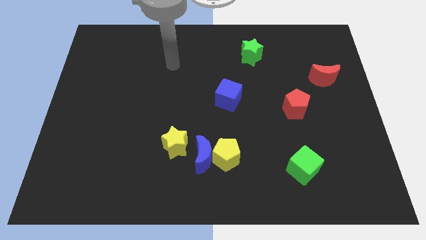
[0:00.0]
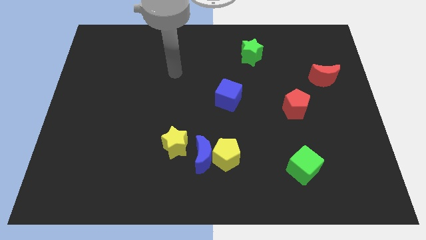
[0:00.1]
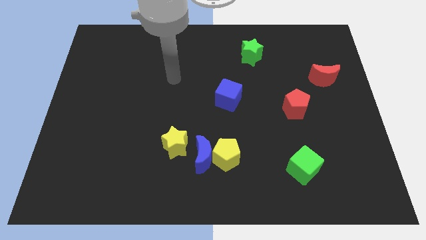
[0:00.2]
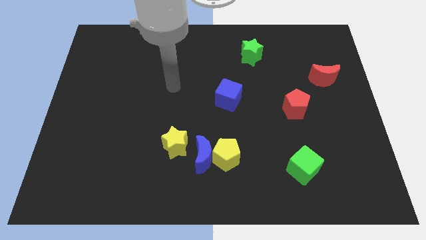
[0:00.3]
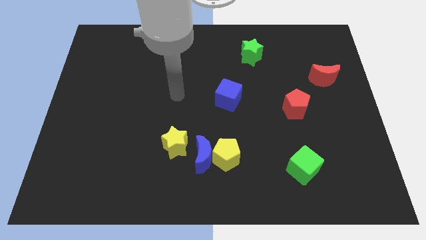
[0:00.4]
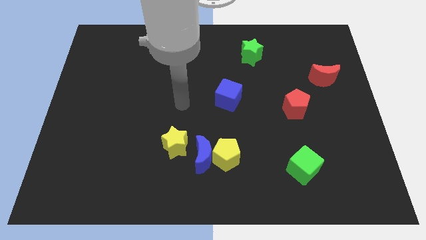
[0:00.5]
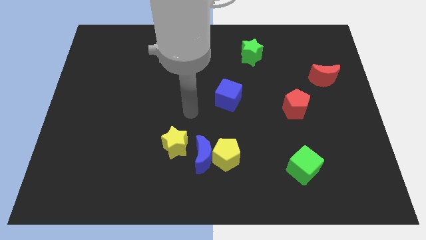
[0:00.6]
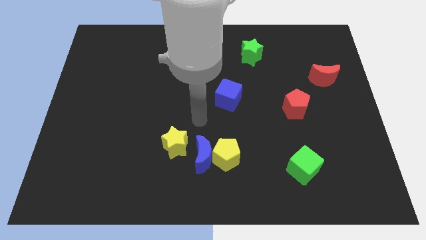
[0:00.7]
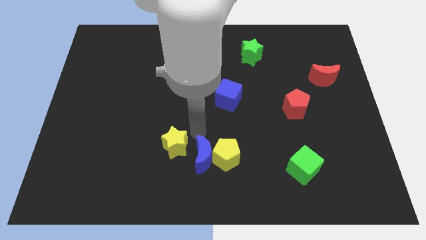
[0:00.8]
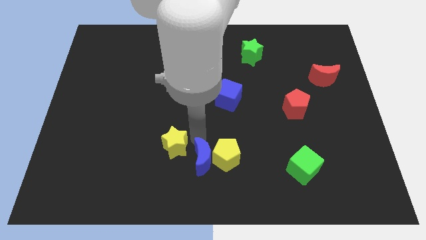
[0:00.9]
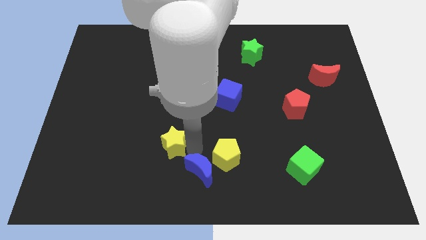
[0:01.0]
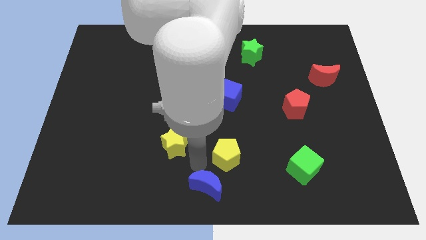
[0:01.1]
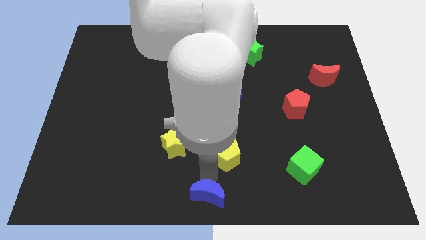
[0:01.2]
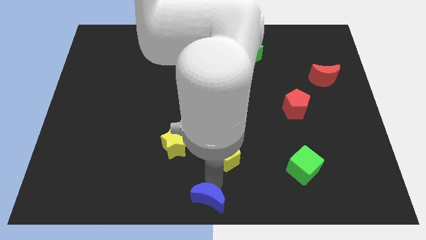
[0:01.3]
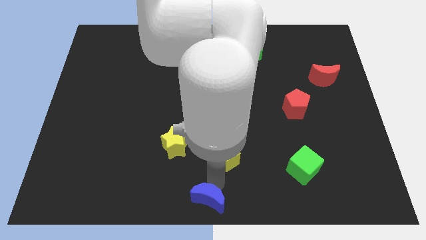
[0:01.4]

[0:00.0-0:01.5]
move the yellow pentagon away from the blue moon

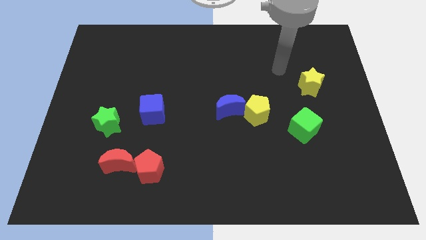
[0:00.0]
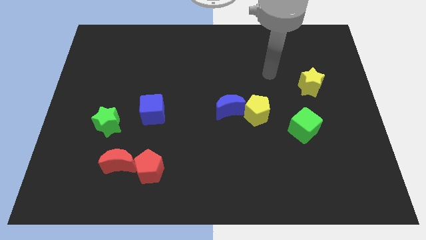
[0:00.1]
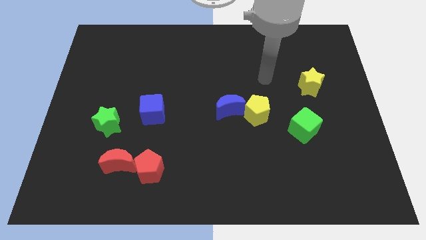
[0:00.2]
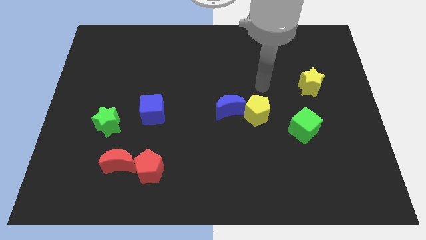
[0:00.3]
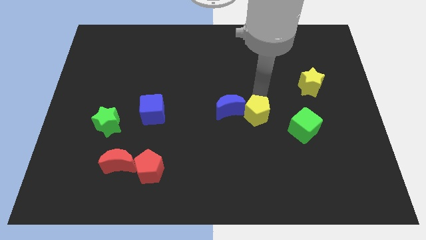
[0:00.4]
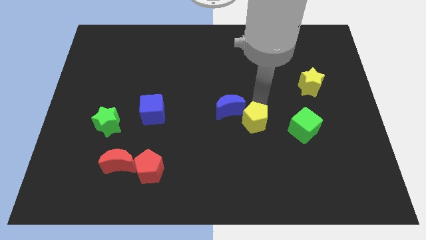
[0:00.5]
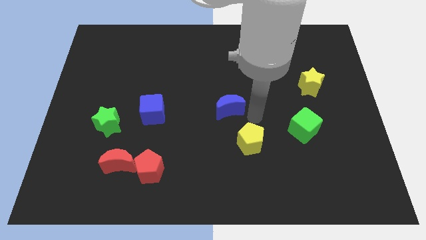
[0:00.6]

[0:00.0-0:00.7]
separate the blue moon from the yellow pentagon

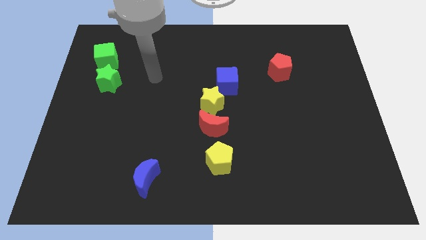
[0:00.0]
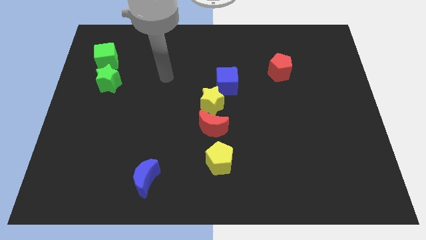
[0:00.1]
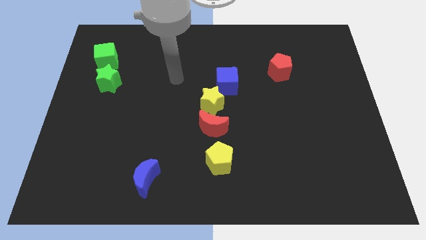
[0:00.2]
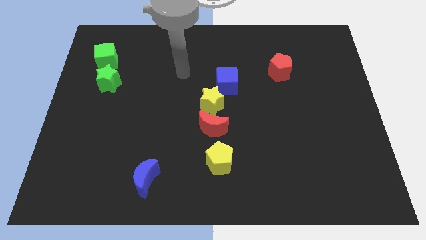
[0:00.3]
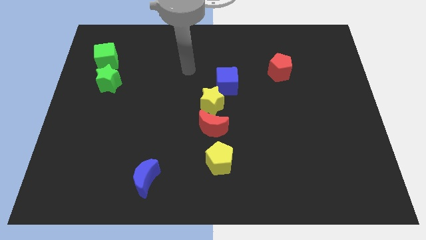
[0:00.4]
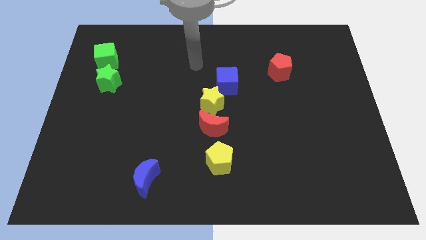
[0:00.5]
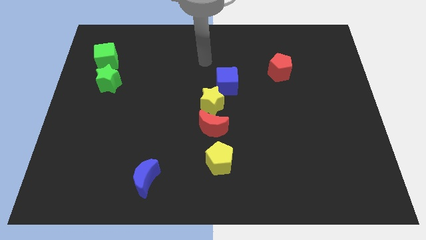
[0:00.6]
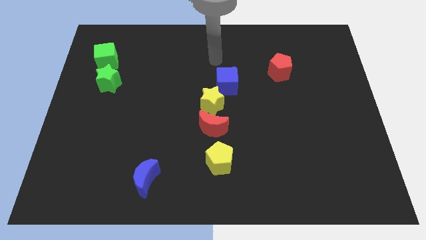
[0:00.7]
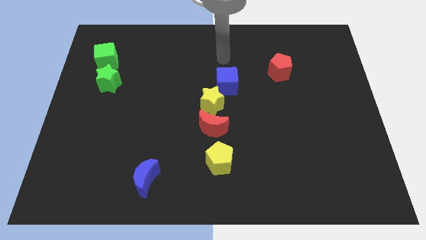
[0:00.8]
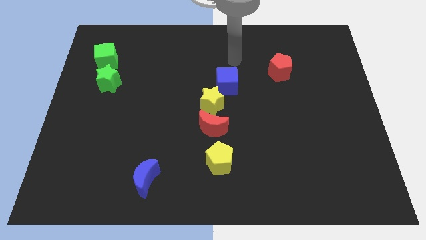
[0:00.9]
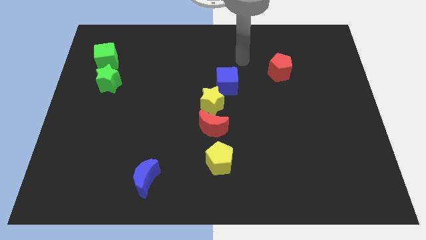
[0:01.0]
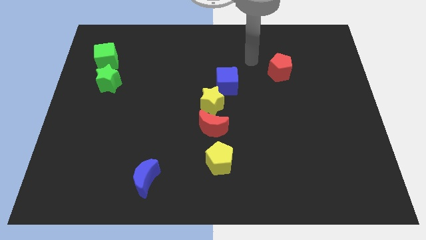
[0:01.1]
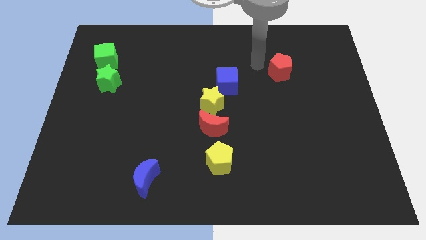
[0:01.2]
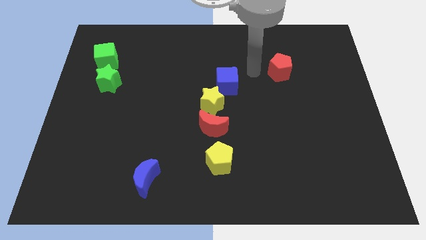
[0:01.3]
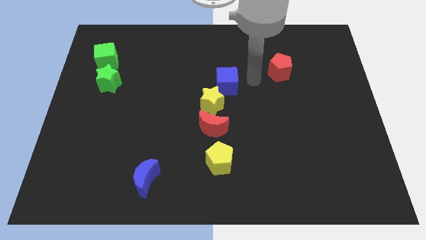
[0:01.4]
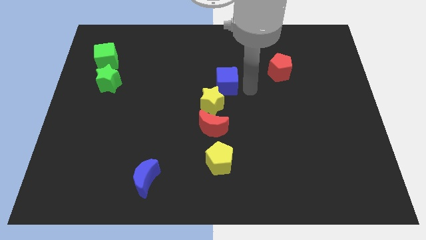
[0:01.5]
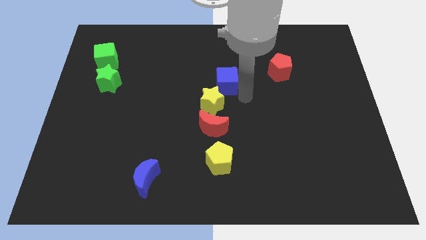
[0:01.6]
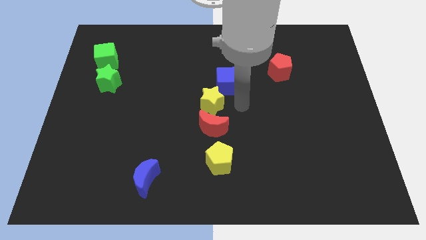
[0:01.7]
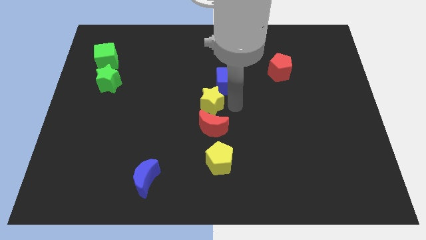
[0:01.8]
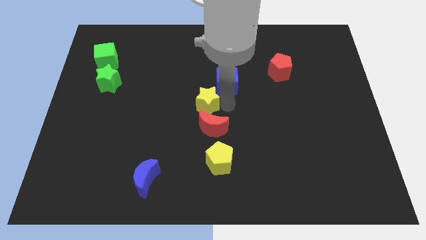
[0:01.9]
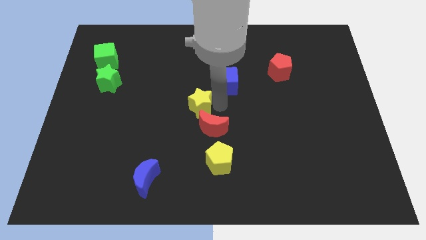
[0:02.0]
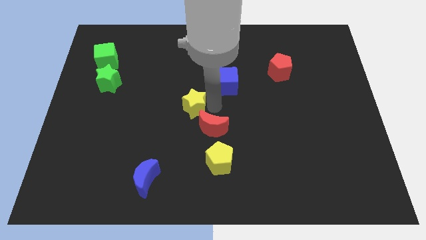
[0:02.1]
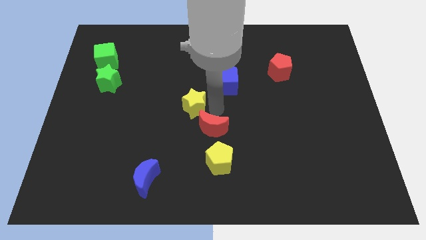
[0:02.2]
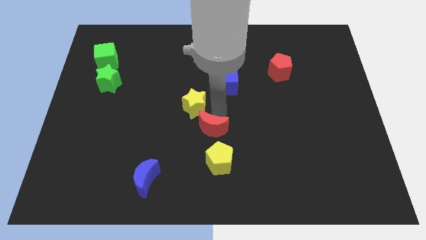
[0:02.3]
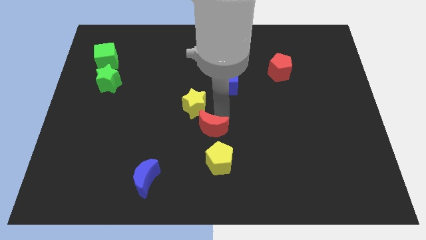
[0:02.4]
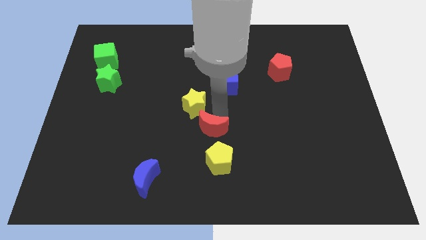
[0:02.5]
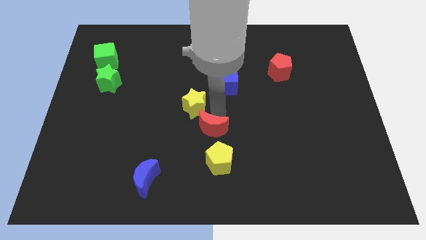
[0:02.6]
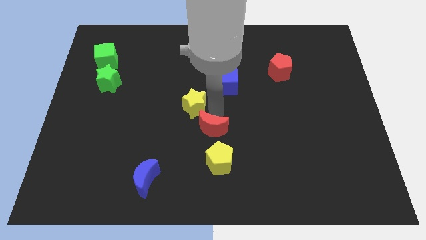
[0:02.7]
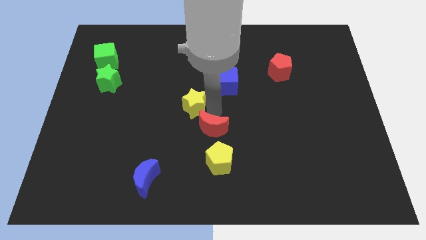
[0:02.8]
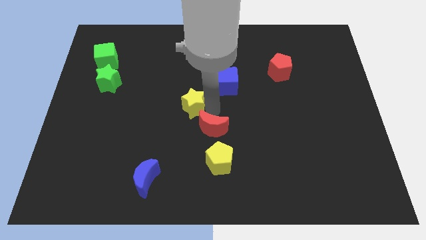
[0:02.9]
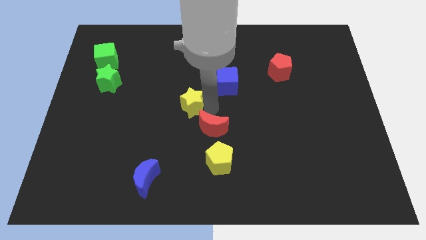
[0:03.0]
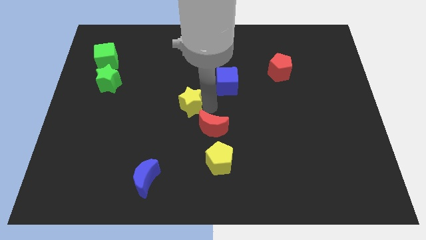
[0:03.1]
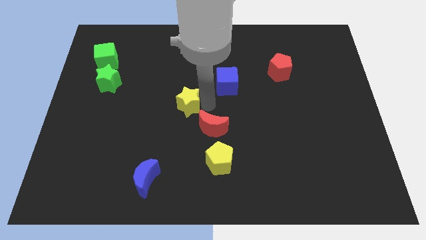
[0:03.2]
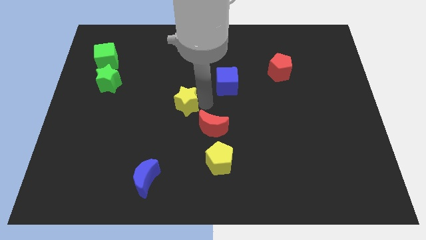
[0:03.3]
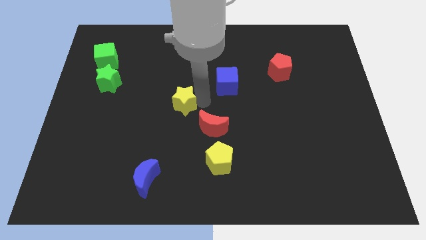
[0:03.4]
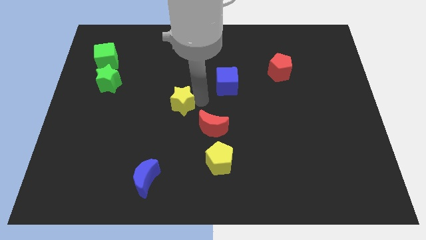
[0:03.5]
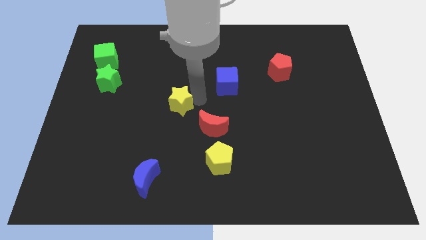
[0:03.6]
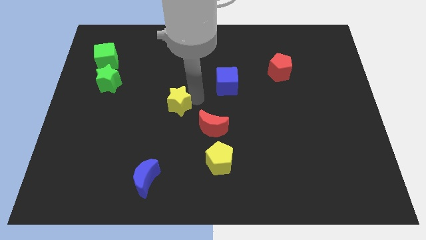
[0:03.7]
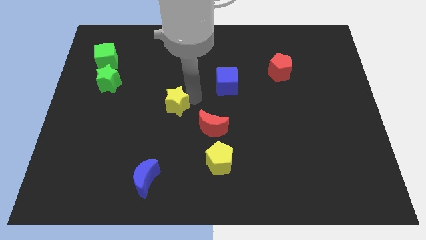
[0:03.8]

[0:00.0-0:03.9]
separate the yellow star from the red moon and blue cube

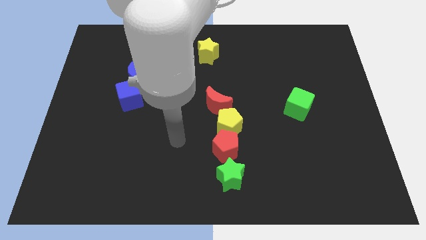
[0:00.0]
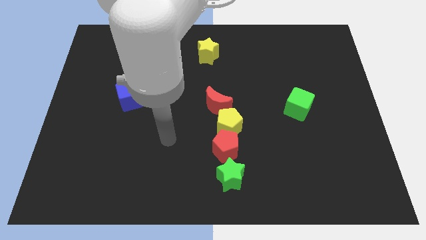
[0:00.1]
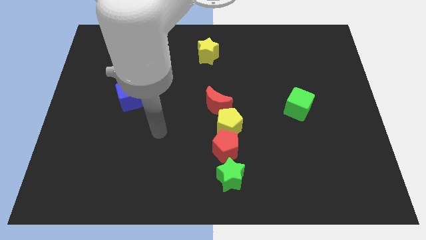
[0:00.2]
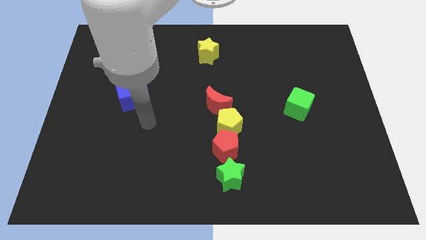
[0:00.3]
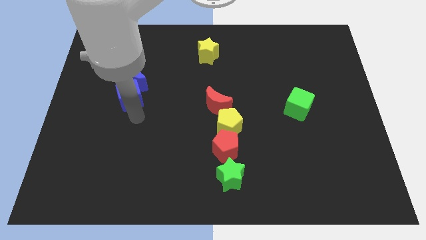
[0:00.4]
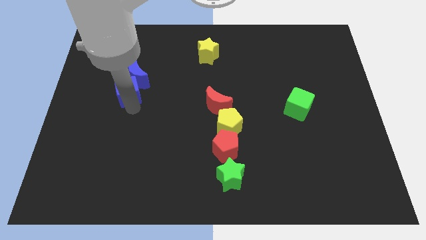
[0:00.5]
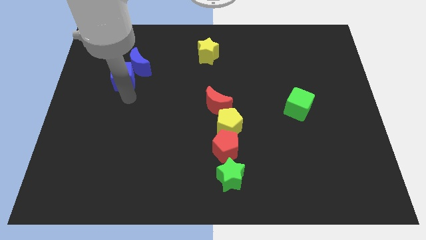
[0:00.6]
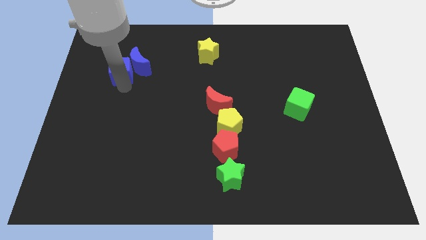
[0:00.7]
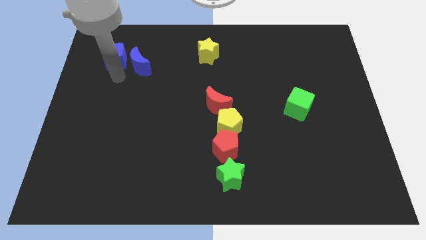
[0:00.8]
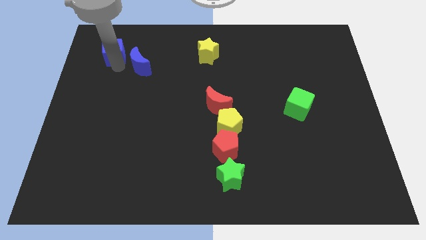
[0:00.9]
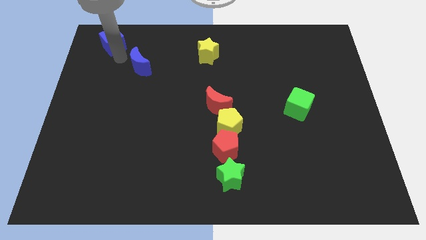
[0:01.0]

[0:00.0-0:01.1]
pull the blue moon apart from the blue cube

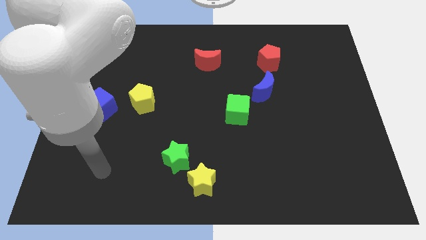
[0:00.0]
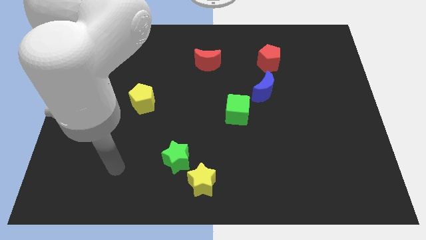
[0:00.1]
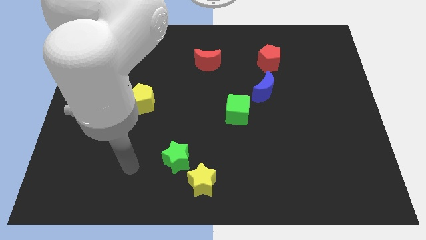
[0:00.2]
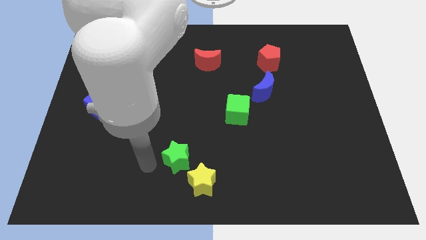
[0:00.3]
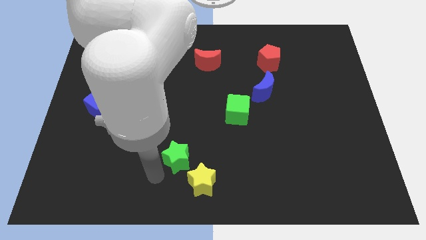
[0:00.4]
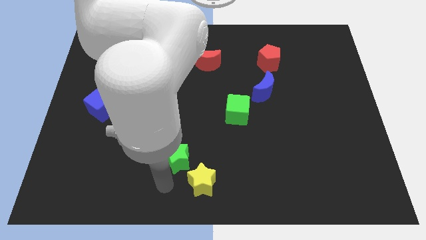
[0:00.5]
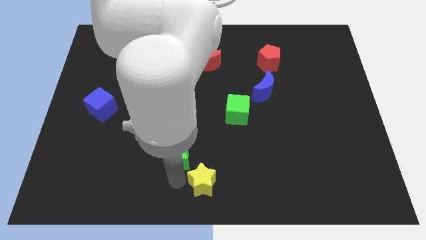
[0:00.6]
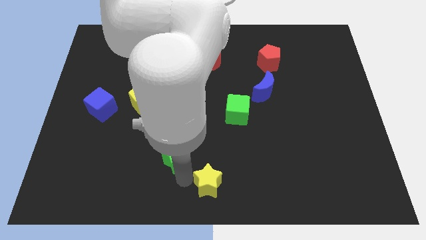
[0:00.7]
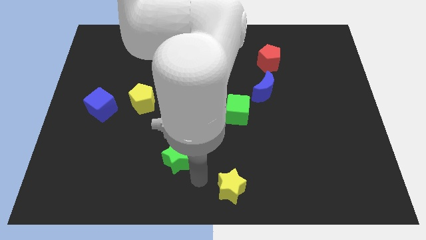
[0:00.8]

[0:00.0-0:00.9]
pull the green star apart from the yellow star

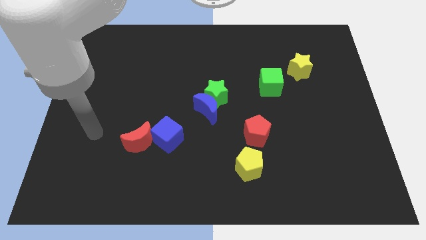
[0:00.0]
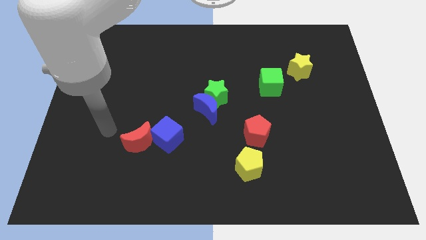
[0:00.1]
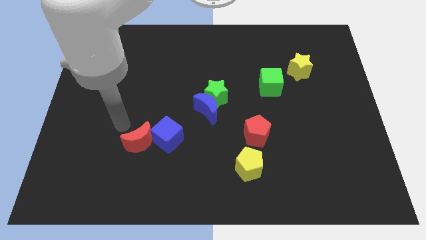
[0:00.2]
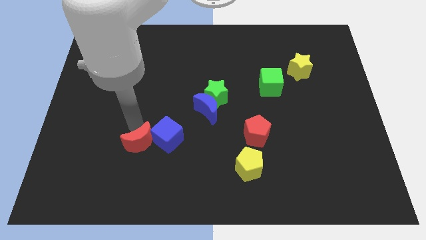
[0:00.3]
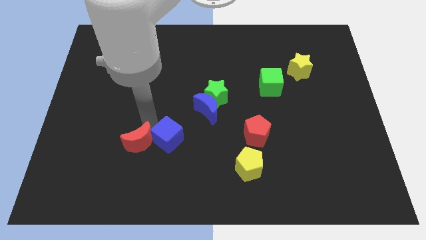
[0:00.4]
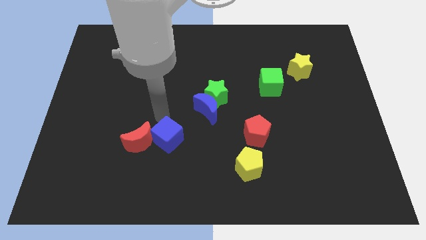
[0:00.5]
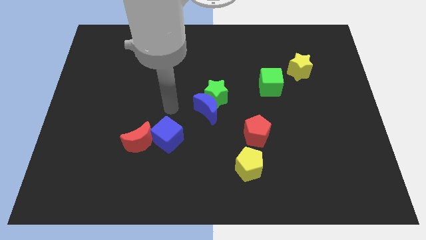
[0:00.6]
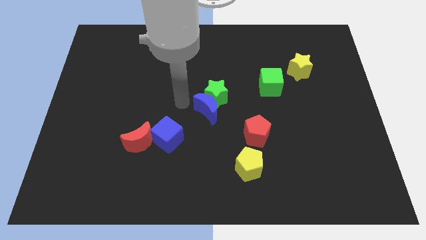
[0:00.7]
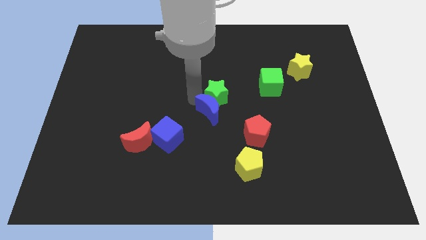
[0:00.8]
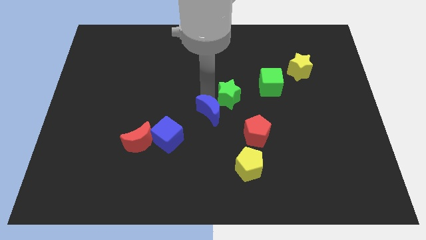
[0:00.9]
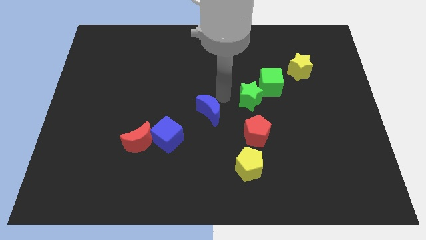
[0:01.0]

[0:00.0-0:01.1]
pull the blue moon apart from the green star

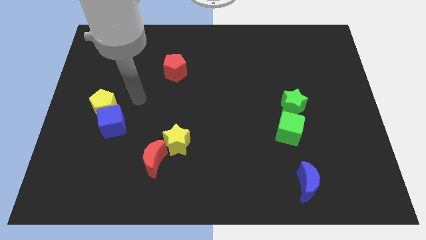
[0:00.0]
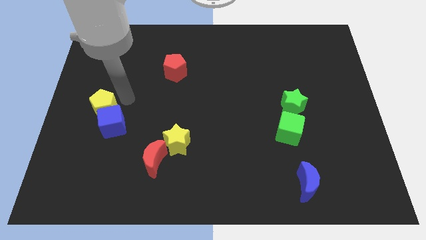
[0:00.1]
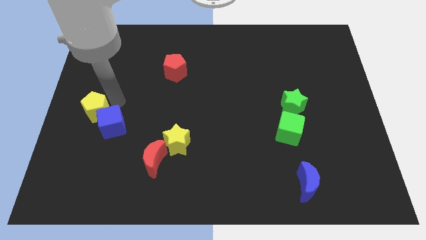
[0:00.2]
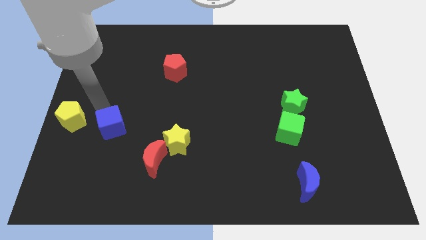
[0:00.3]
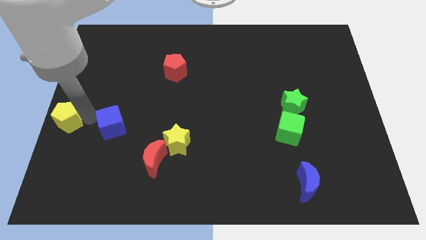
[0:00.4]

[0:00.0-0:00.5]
pull the blue cube apart from the yellow pentagon
